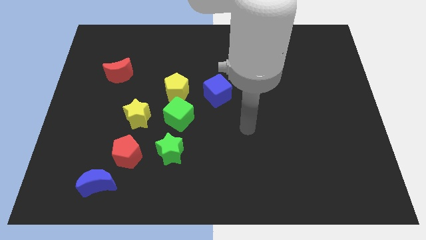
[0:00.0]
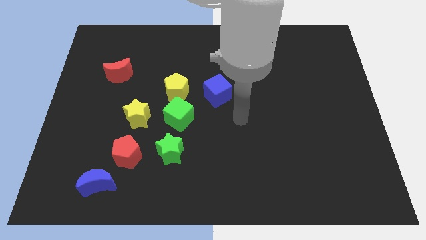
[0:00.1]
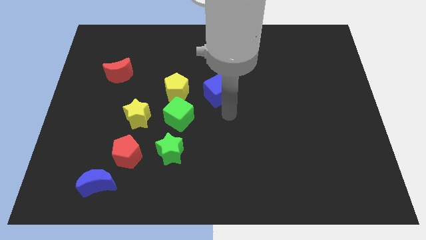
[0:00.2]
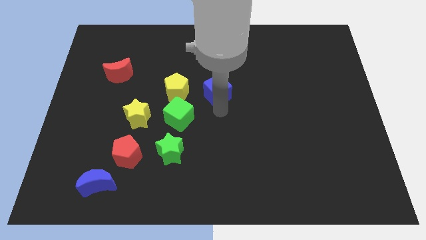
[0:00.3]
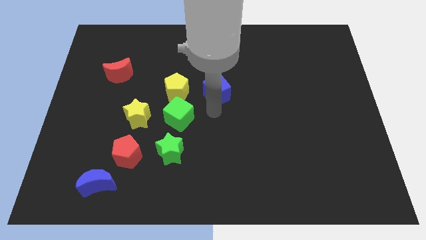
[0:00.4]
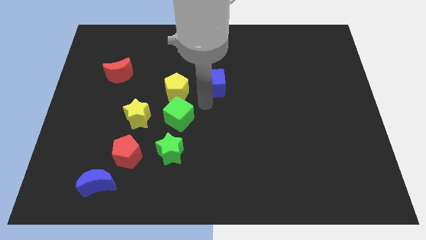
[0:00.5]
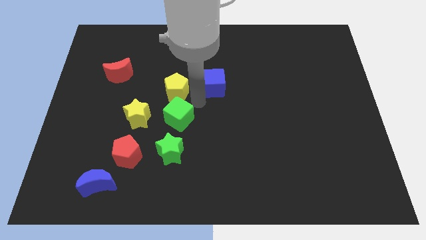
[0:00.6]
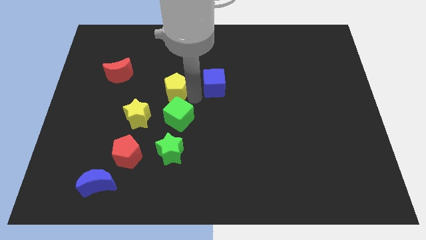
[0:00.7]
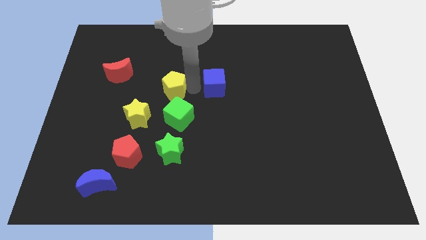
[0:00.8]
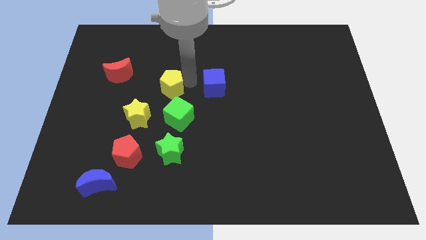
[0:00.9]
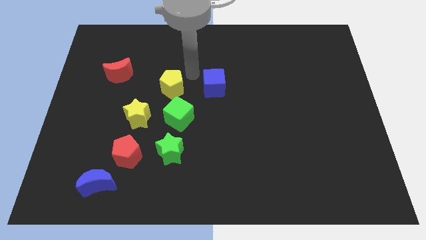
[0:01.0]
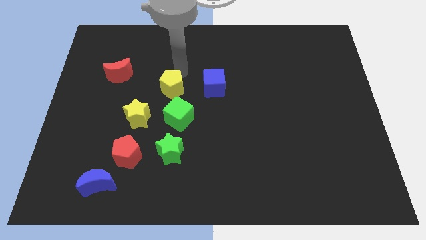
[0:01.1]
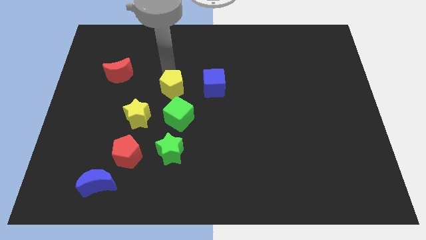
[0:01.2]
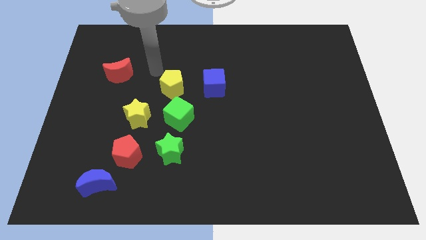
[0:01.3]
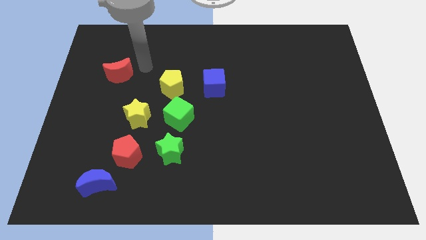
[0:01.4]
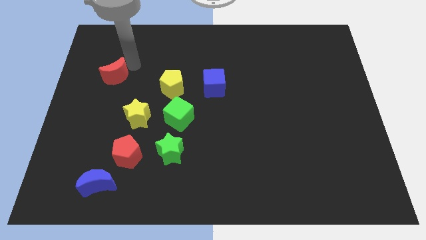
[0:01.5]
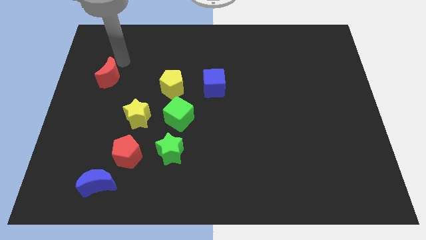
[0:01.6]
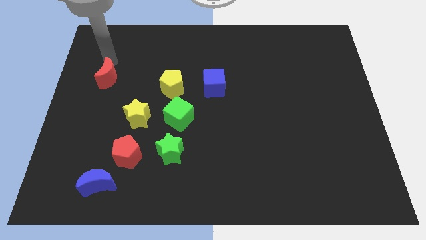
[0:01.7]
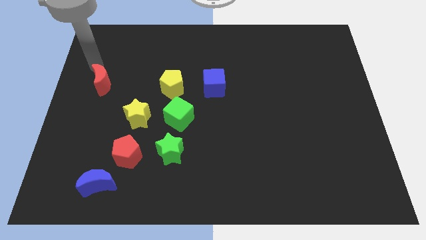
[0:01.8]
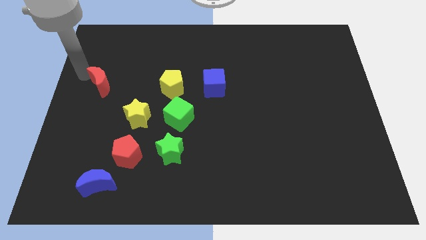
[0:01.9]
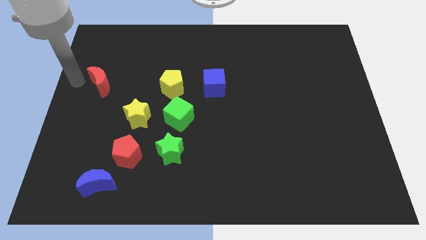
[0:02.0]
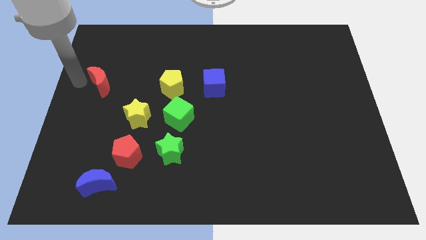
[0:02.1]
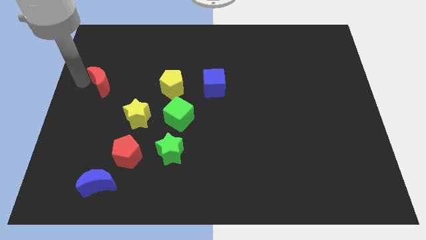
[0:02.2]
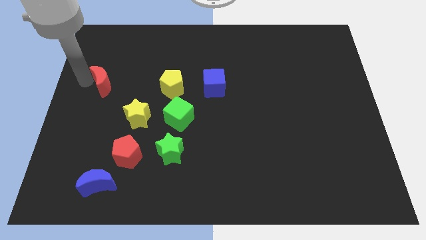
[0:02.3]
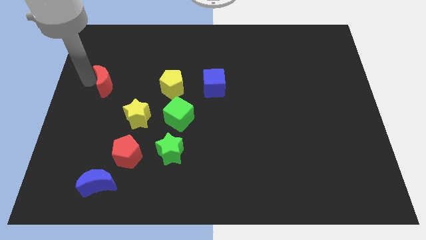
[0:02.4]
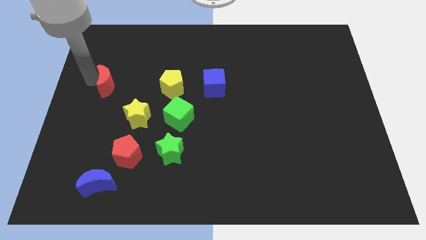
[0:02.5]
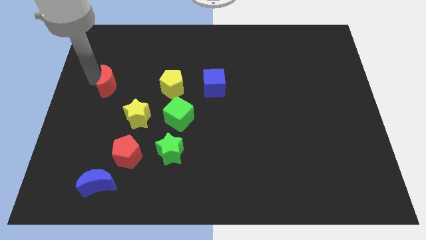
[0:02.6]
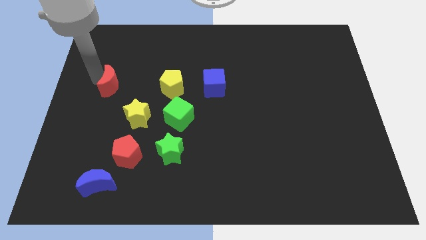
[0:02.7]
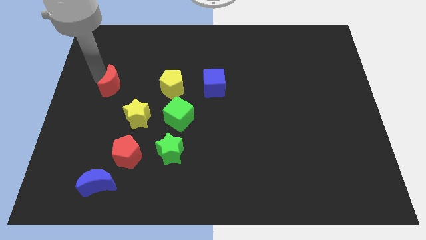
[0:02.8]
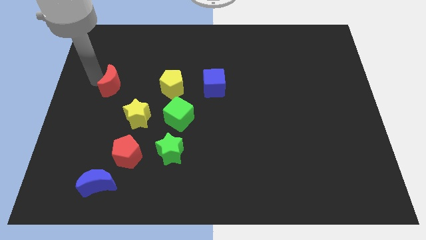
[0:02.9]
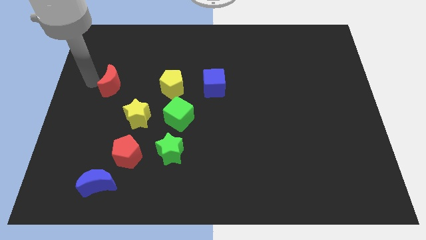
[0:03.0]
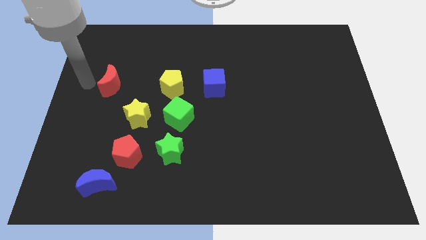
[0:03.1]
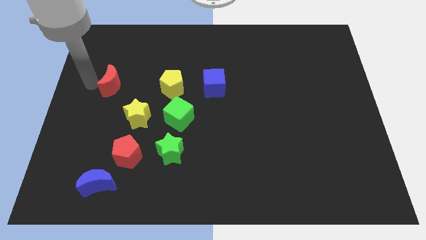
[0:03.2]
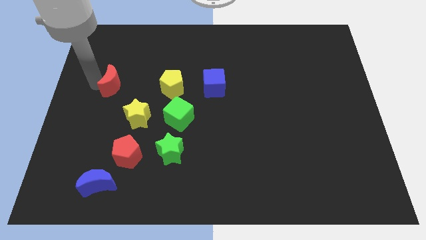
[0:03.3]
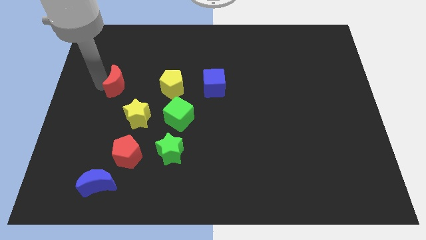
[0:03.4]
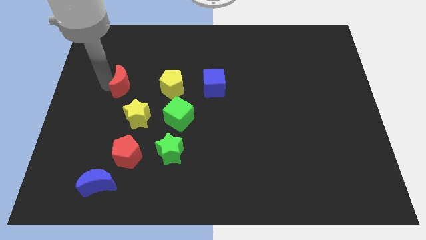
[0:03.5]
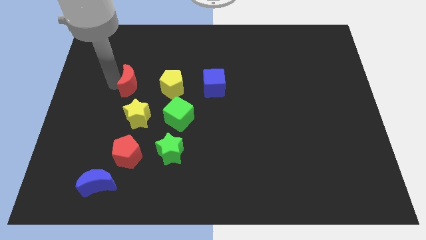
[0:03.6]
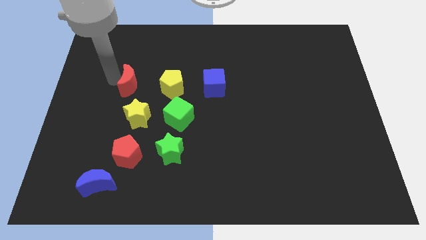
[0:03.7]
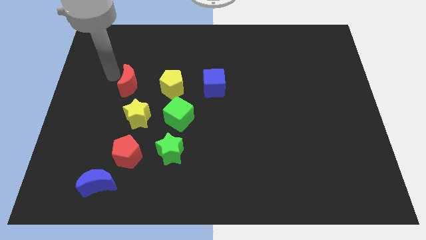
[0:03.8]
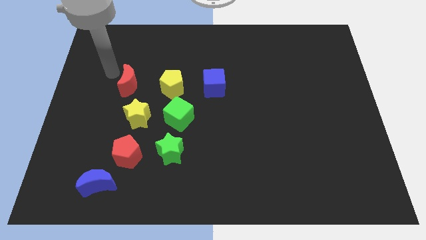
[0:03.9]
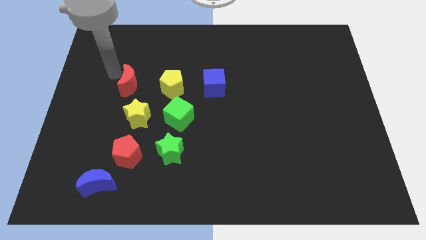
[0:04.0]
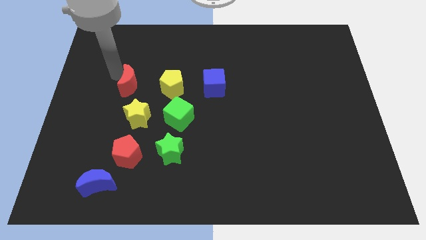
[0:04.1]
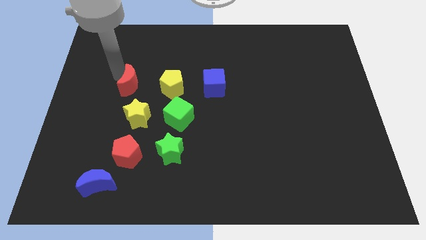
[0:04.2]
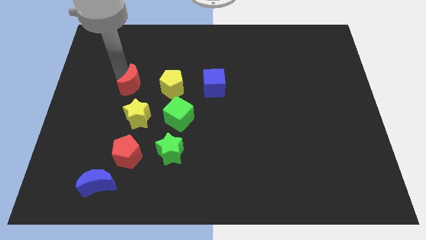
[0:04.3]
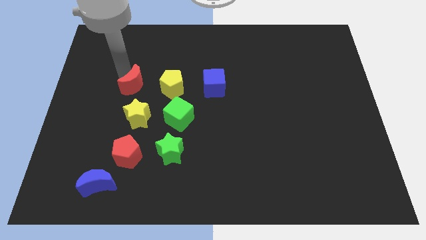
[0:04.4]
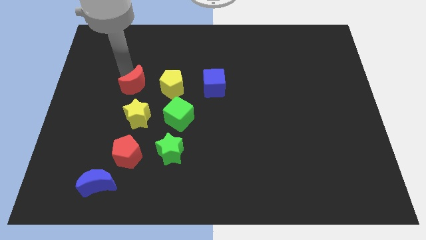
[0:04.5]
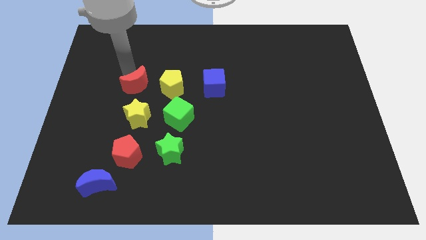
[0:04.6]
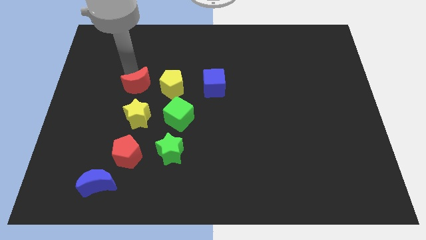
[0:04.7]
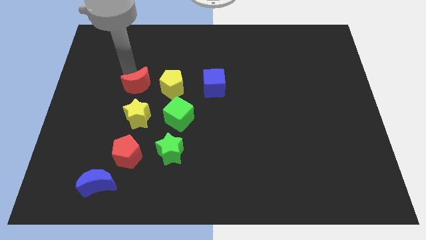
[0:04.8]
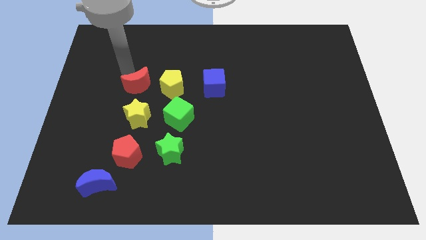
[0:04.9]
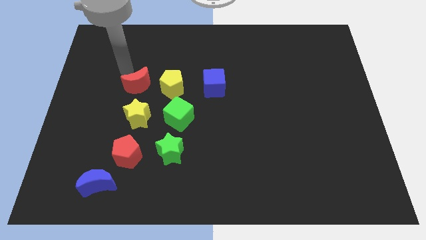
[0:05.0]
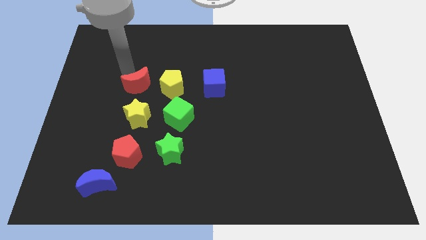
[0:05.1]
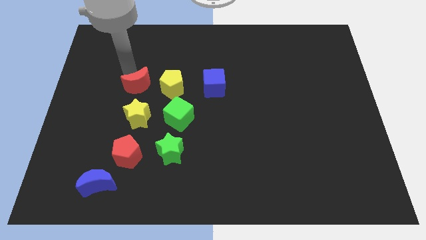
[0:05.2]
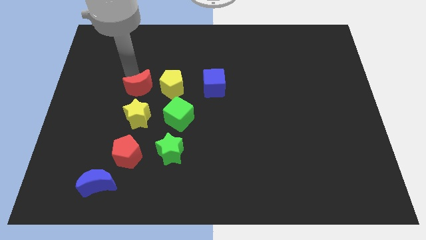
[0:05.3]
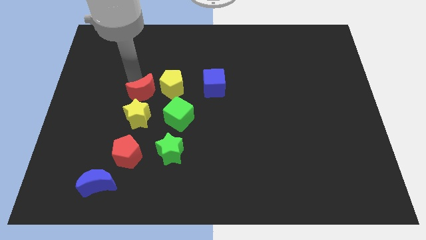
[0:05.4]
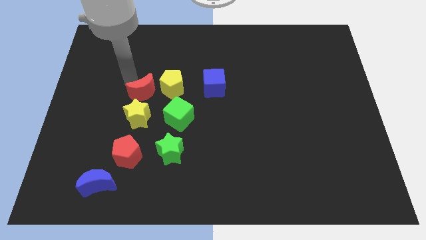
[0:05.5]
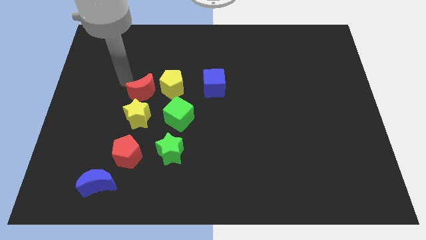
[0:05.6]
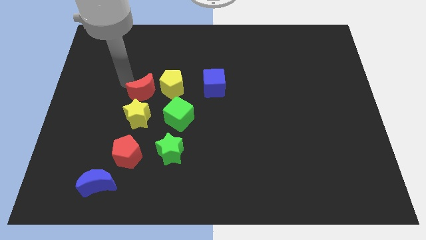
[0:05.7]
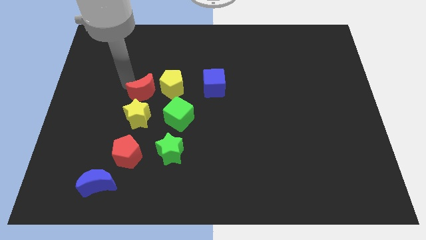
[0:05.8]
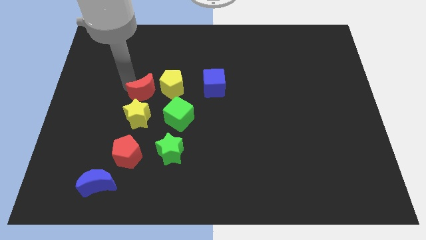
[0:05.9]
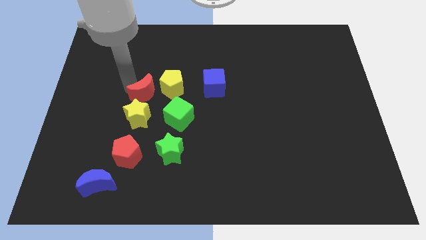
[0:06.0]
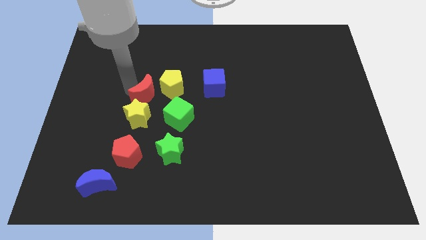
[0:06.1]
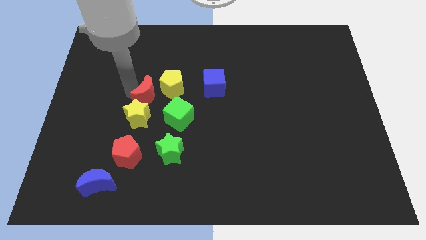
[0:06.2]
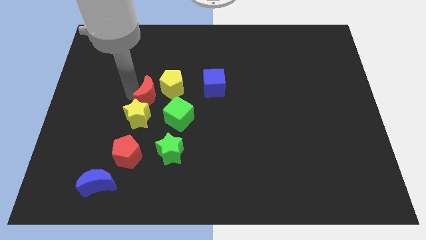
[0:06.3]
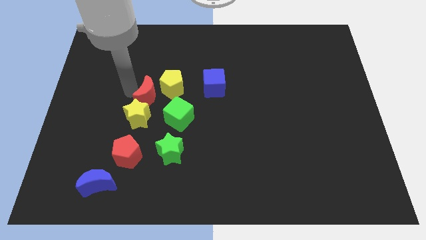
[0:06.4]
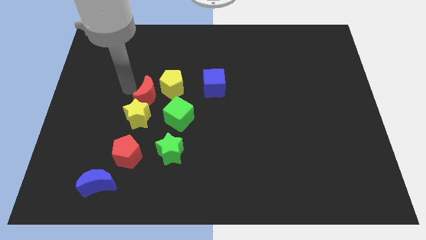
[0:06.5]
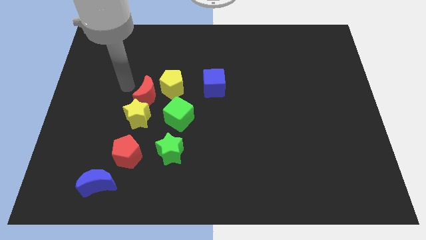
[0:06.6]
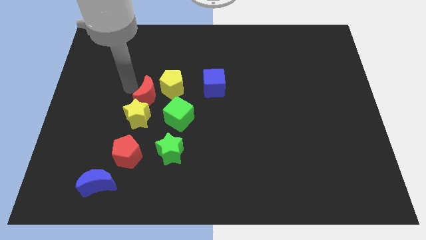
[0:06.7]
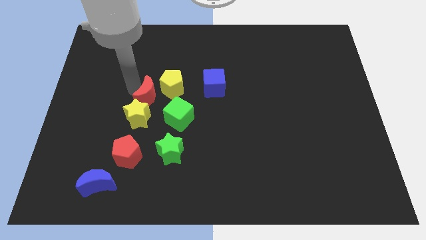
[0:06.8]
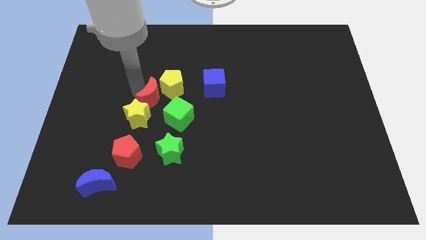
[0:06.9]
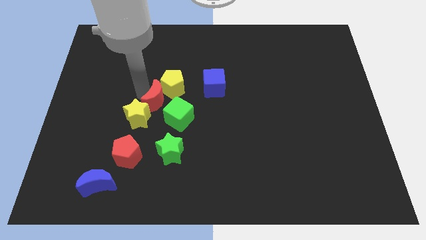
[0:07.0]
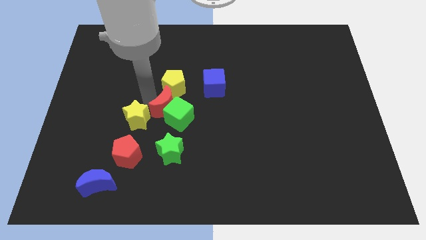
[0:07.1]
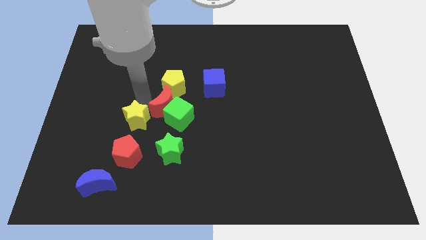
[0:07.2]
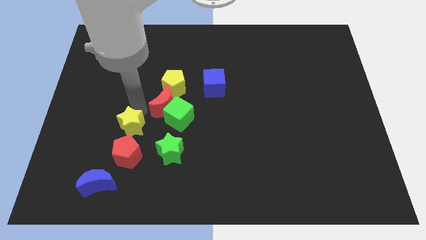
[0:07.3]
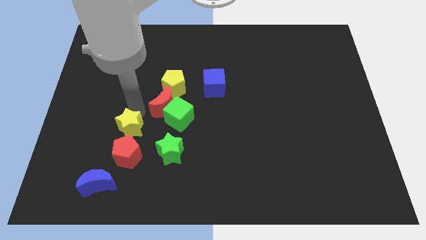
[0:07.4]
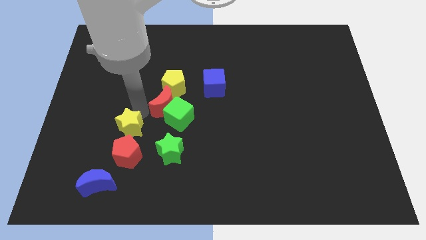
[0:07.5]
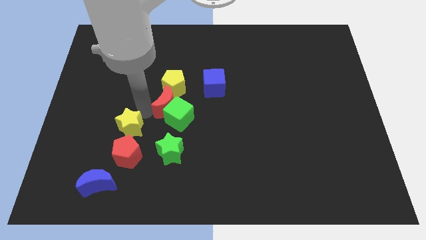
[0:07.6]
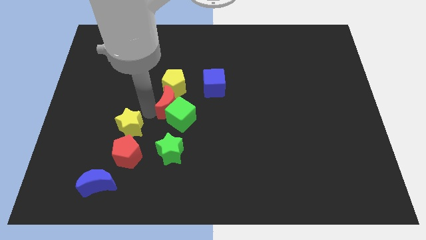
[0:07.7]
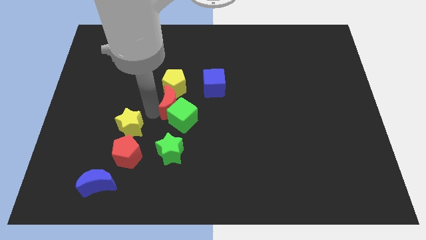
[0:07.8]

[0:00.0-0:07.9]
slide the red moon to the bottom left side of the blue cube
